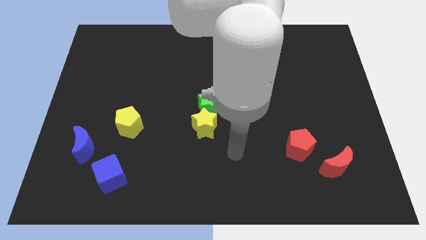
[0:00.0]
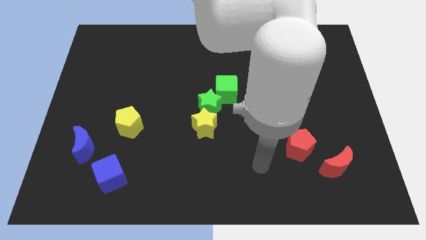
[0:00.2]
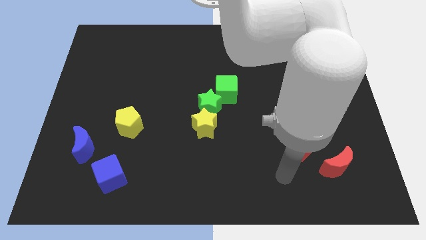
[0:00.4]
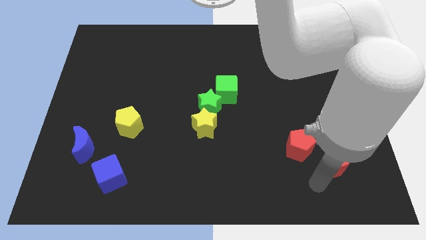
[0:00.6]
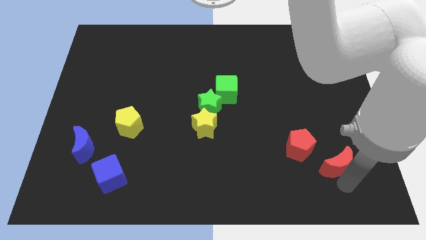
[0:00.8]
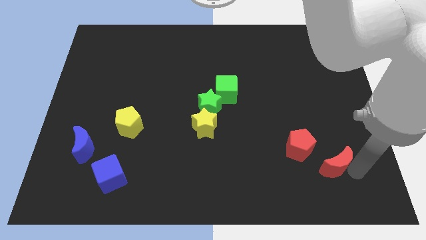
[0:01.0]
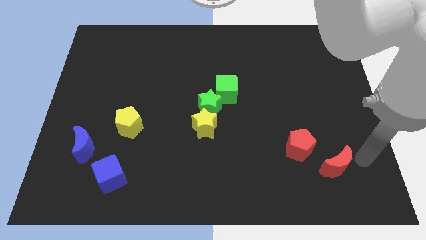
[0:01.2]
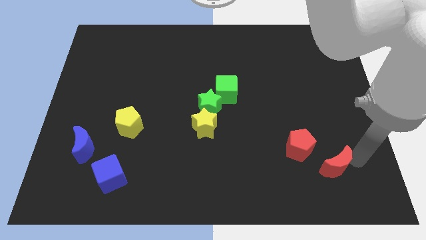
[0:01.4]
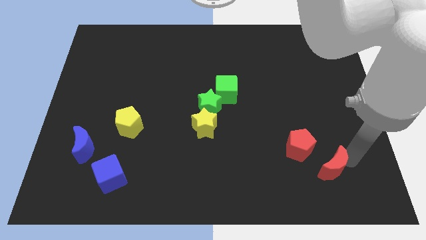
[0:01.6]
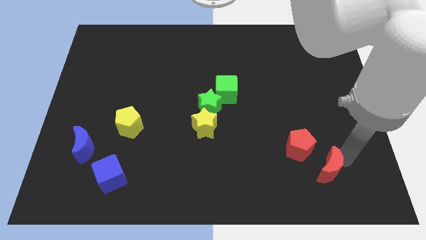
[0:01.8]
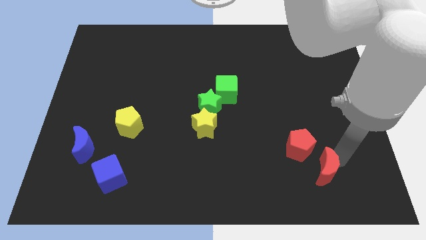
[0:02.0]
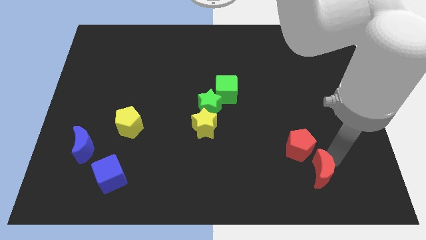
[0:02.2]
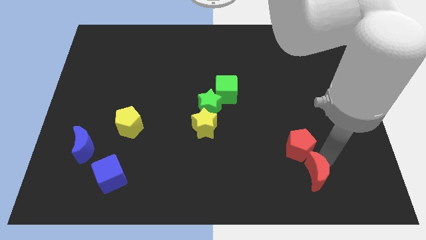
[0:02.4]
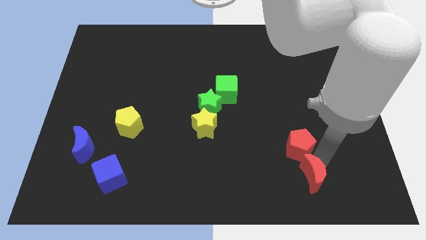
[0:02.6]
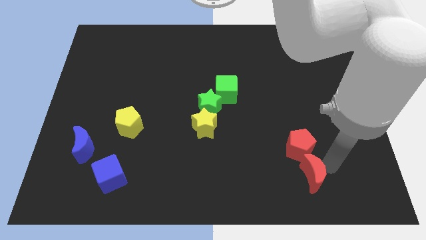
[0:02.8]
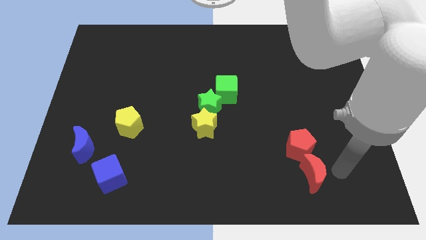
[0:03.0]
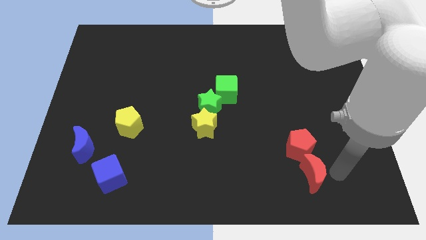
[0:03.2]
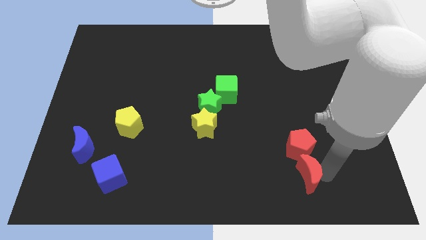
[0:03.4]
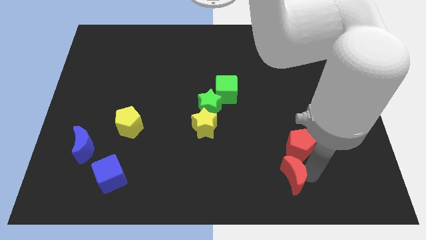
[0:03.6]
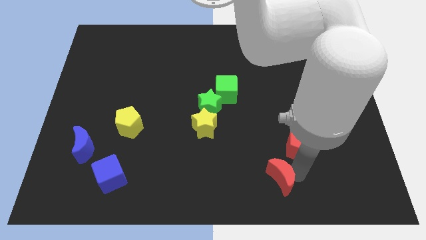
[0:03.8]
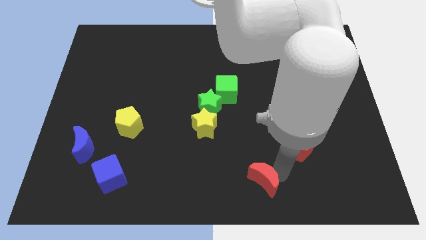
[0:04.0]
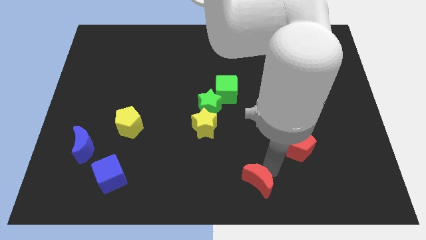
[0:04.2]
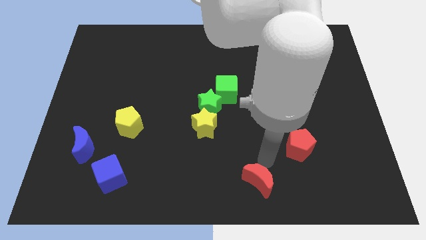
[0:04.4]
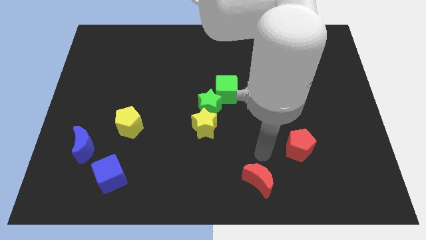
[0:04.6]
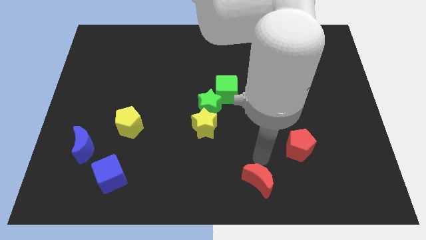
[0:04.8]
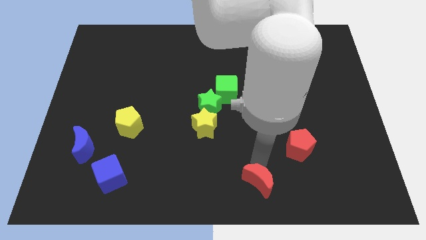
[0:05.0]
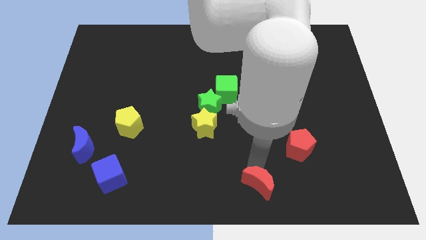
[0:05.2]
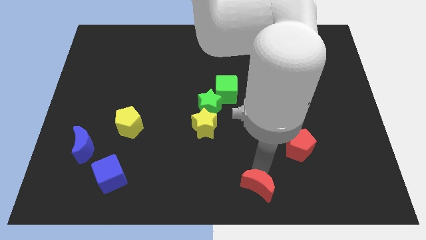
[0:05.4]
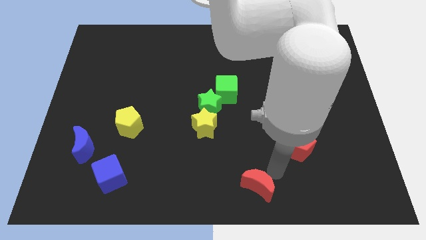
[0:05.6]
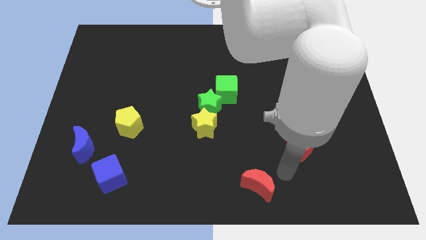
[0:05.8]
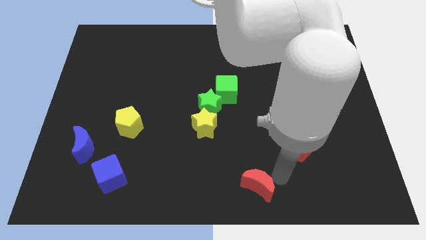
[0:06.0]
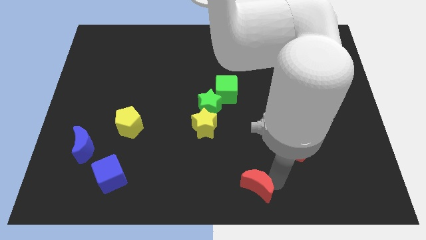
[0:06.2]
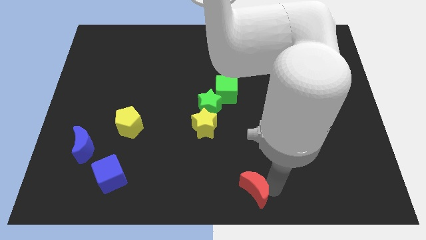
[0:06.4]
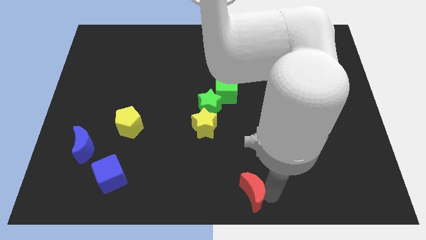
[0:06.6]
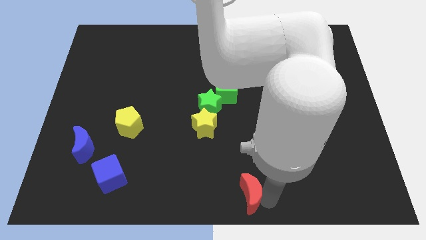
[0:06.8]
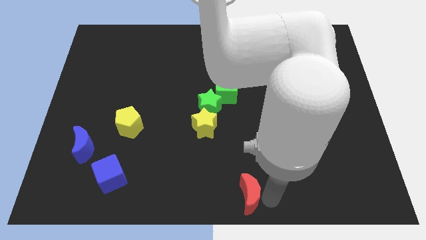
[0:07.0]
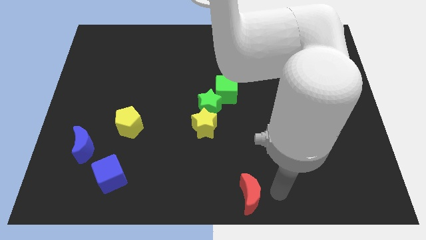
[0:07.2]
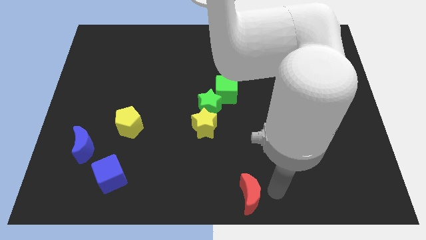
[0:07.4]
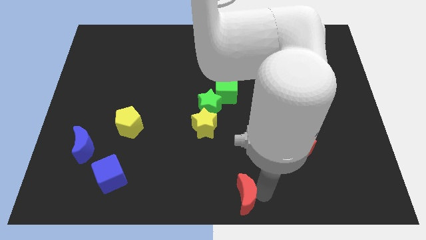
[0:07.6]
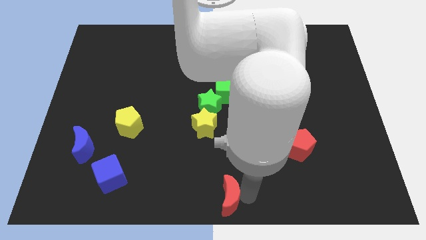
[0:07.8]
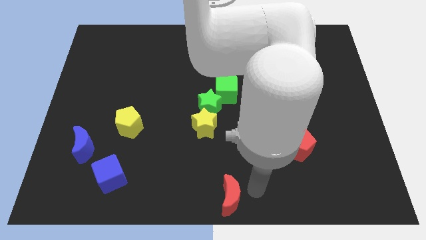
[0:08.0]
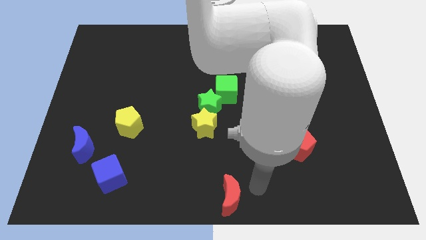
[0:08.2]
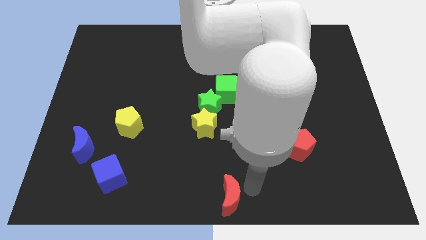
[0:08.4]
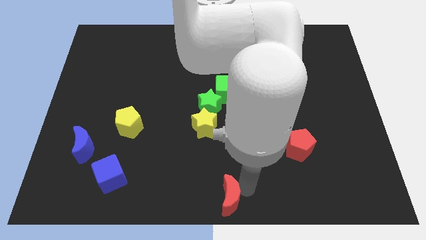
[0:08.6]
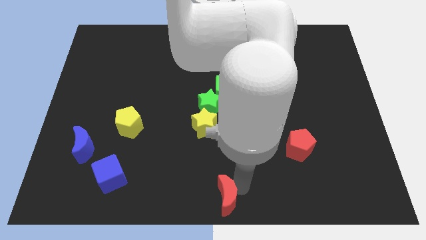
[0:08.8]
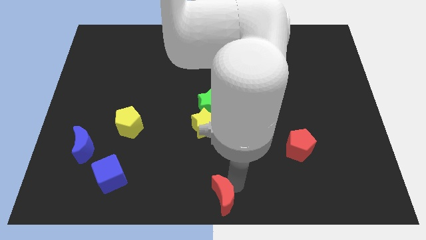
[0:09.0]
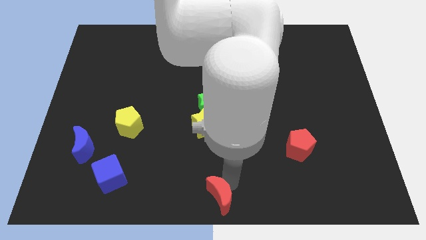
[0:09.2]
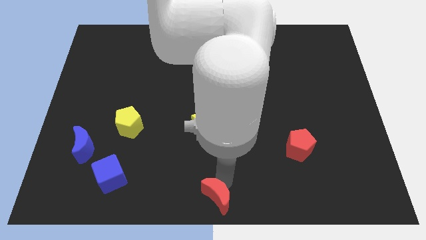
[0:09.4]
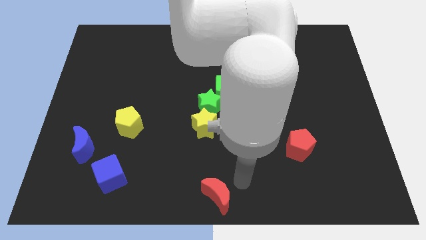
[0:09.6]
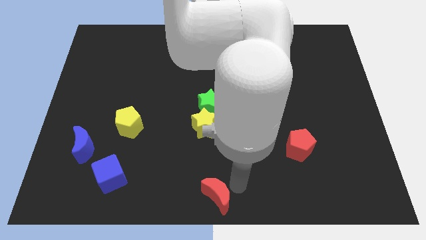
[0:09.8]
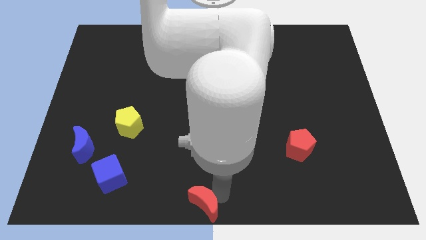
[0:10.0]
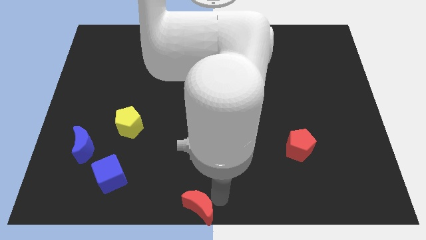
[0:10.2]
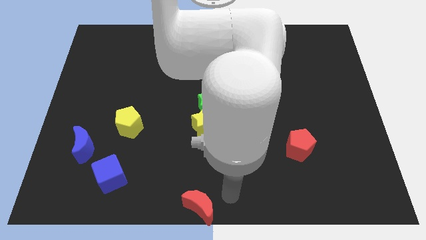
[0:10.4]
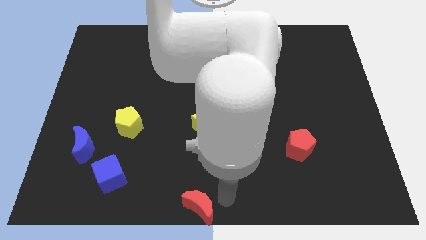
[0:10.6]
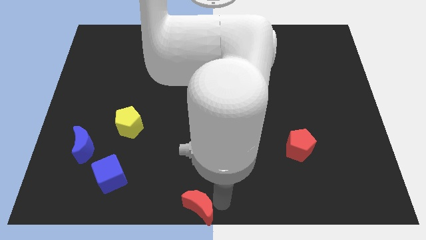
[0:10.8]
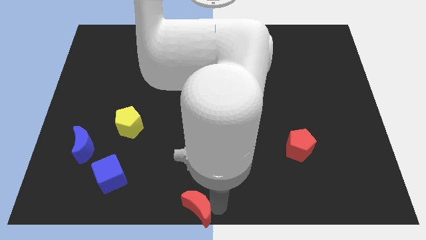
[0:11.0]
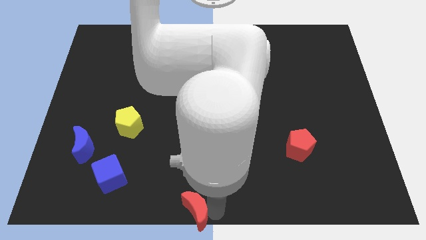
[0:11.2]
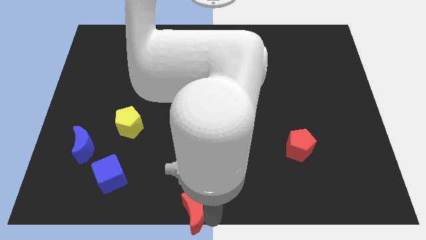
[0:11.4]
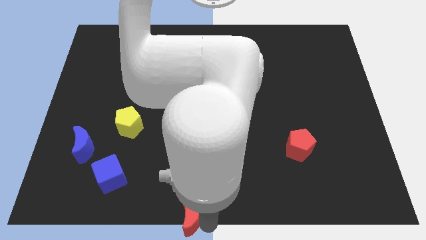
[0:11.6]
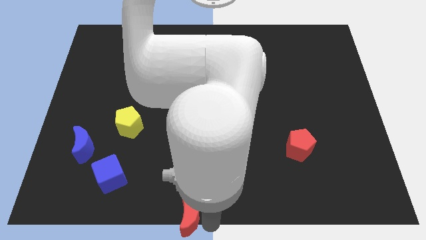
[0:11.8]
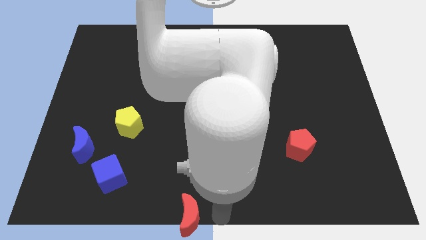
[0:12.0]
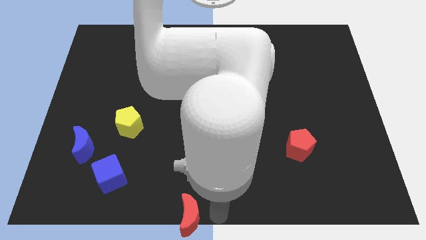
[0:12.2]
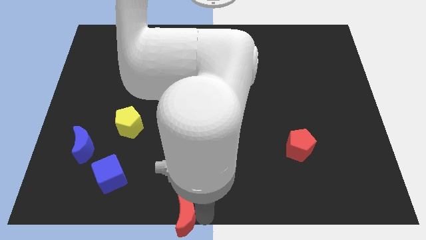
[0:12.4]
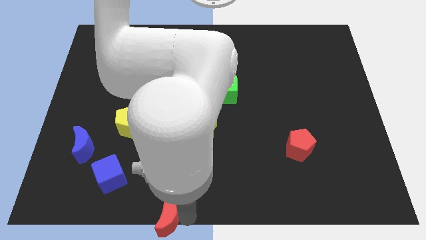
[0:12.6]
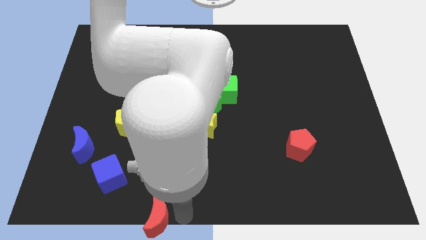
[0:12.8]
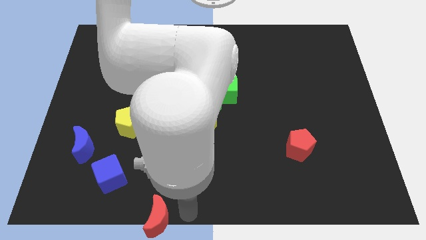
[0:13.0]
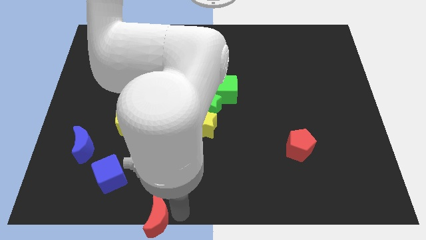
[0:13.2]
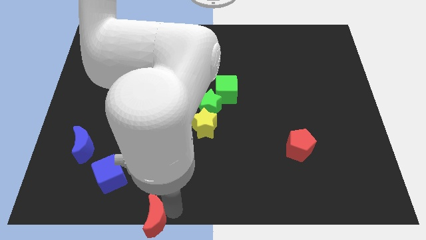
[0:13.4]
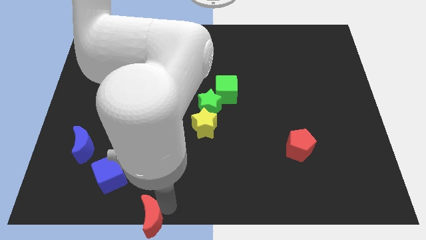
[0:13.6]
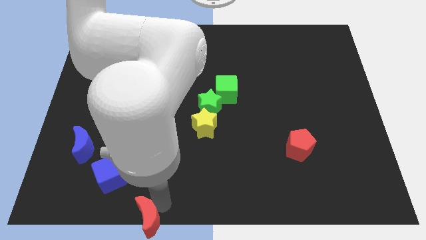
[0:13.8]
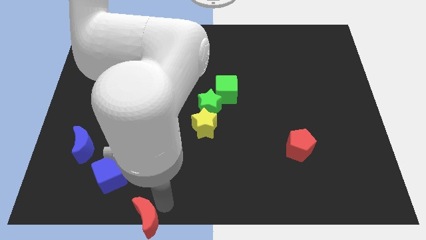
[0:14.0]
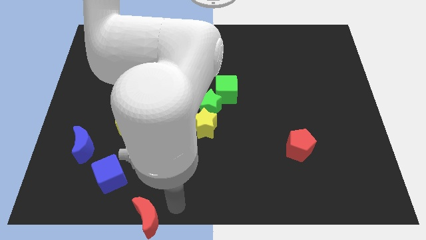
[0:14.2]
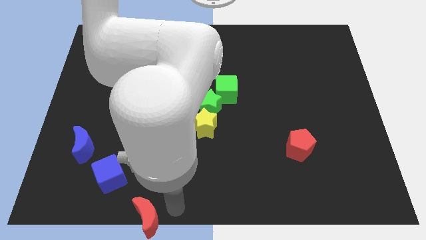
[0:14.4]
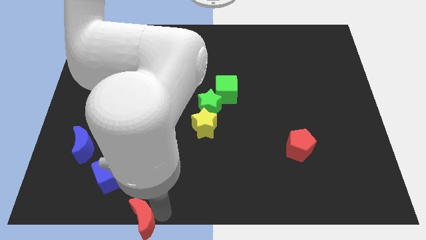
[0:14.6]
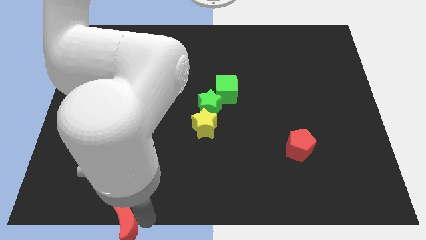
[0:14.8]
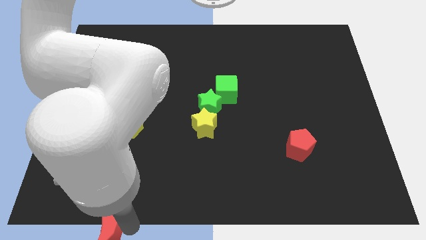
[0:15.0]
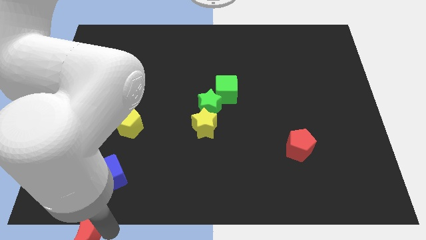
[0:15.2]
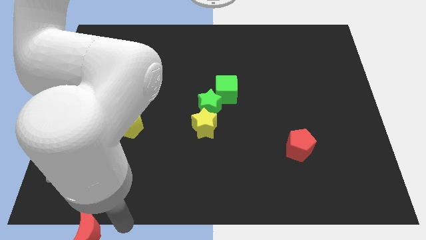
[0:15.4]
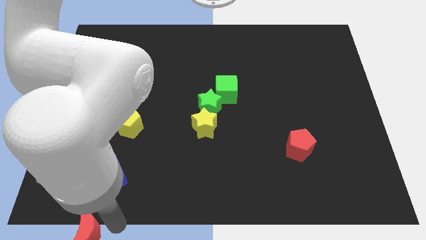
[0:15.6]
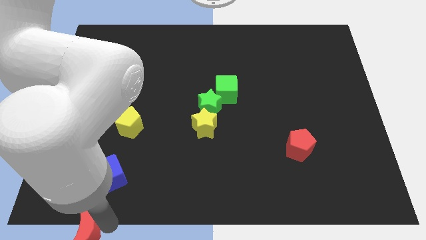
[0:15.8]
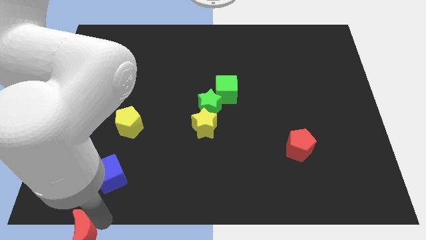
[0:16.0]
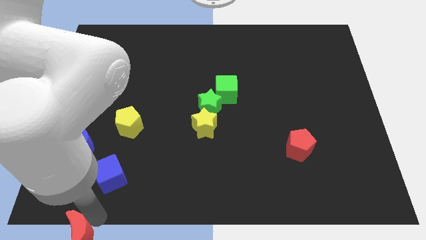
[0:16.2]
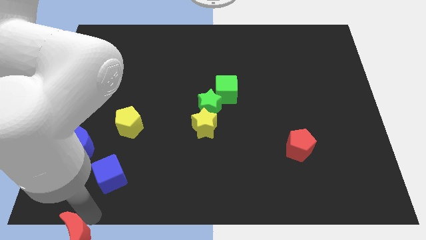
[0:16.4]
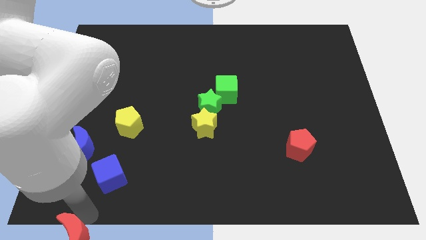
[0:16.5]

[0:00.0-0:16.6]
slide the red moon to the lower left corner
